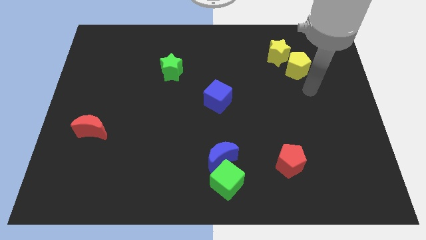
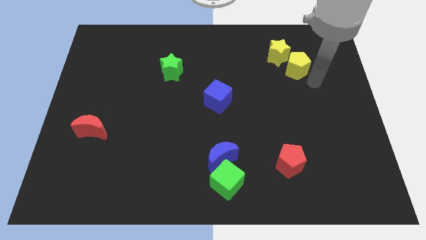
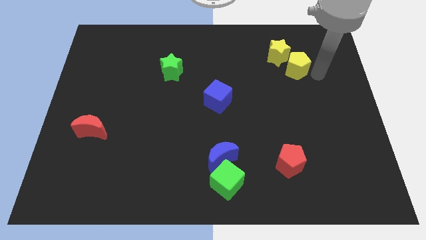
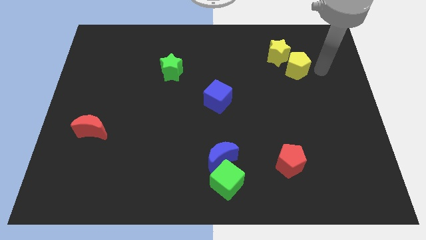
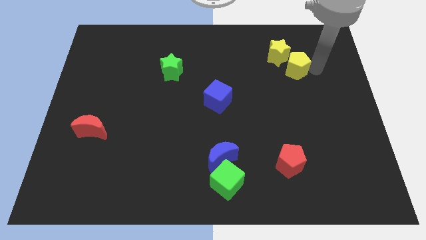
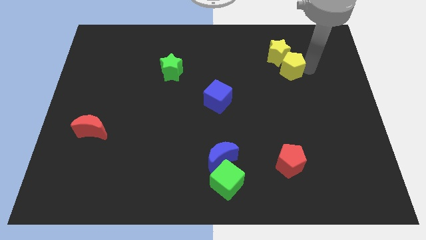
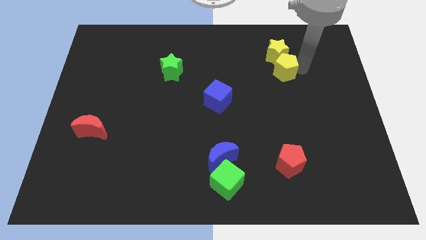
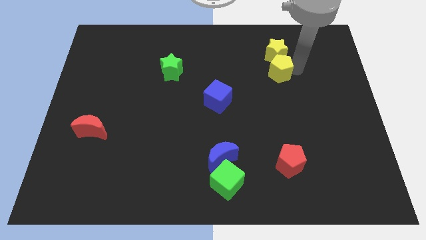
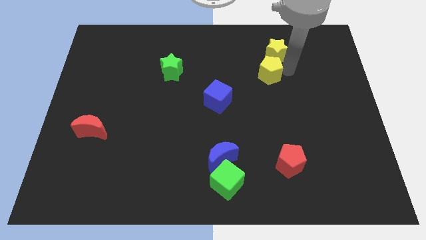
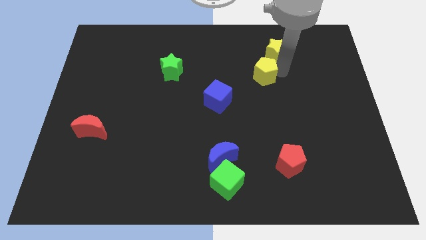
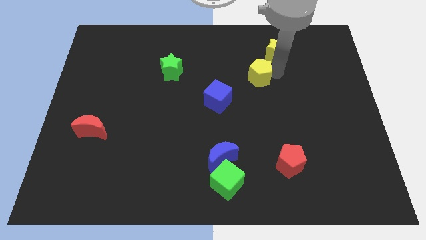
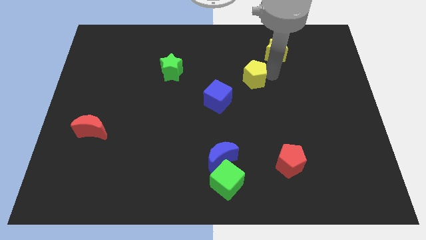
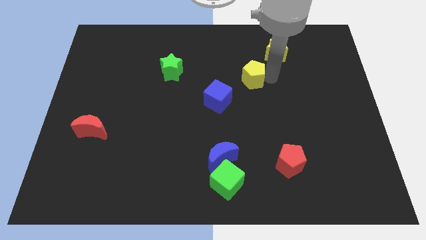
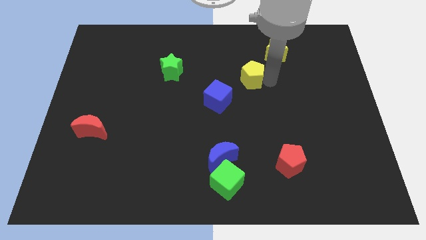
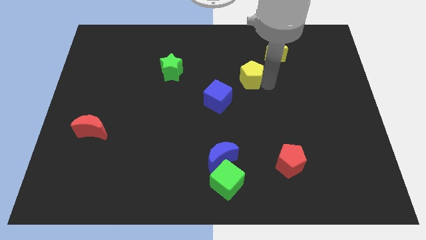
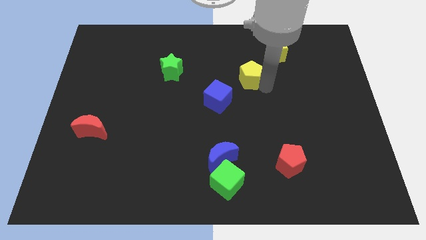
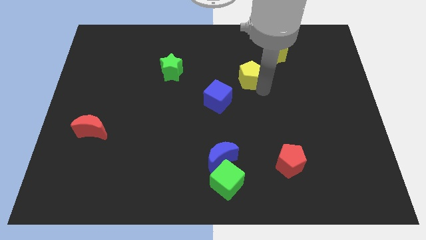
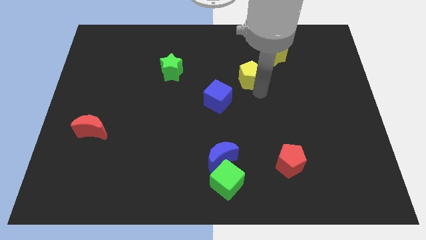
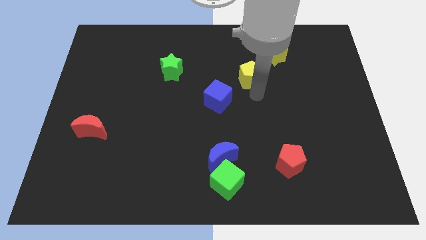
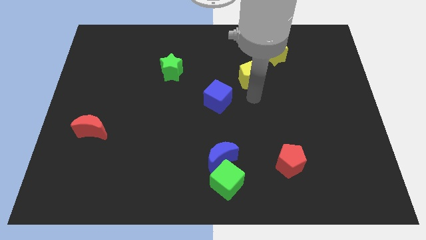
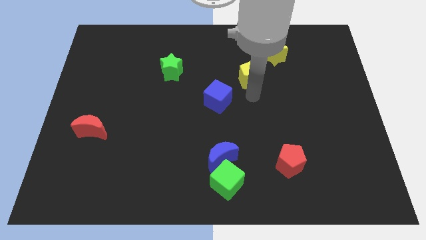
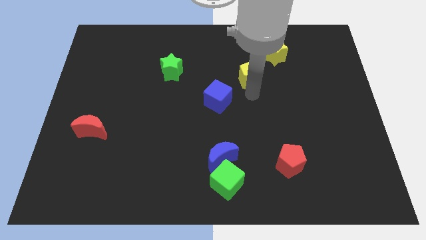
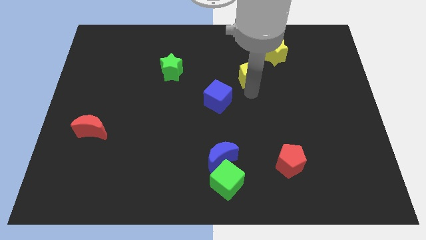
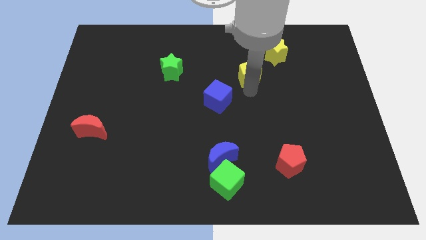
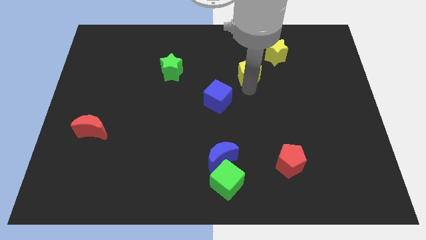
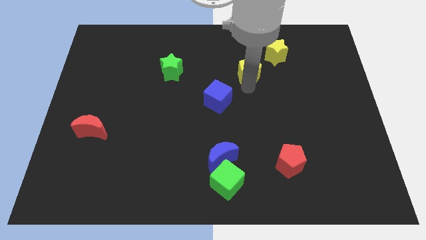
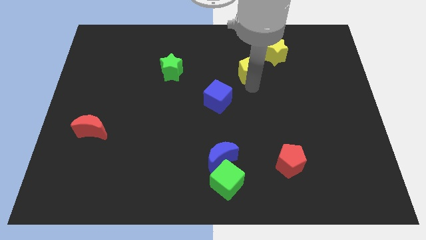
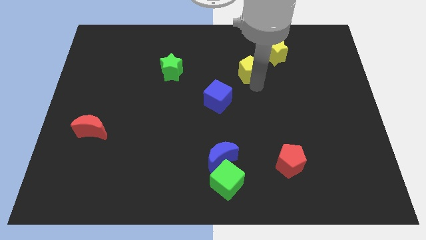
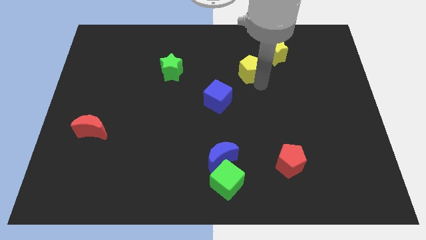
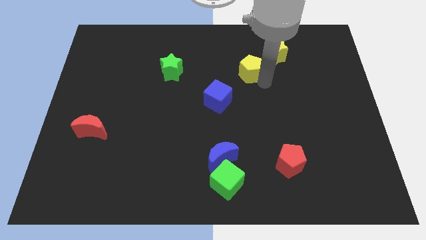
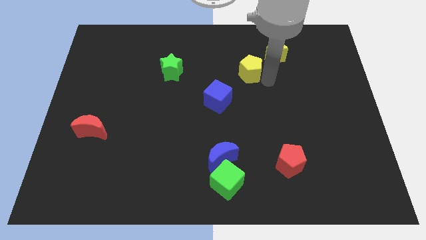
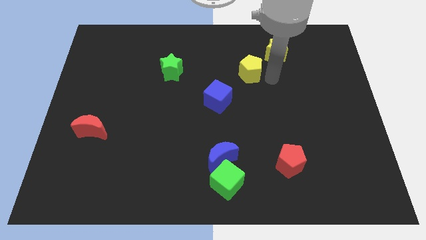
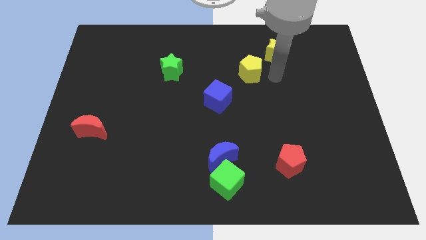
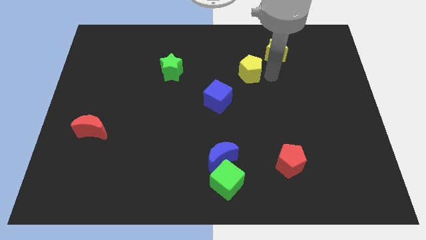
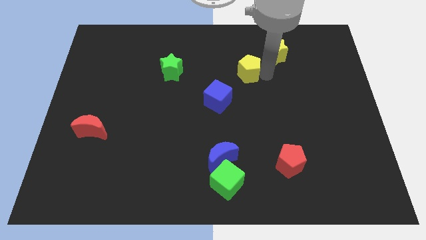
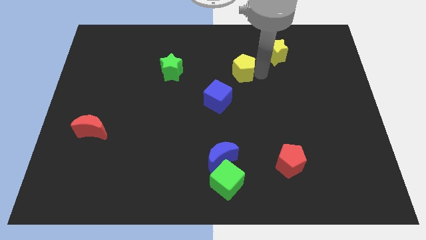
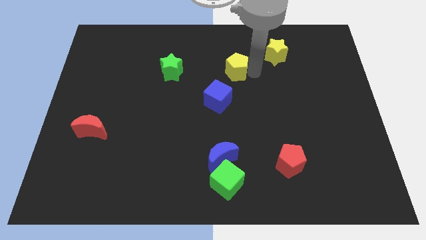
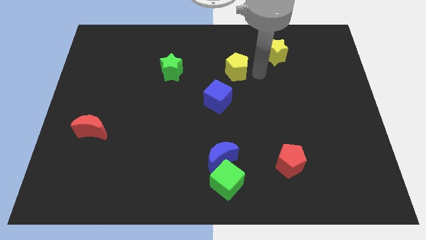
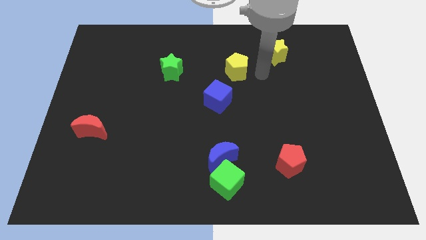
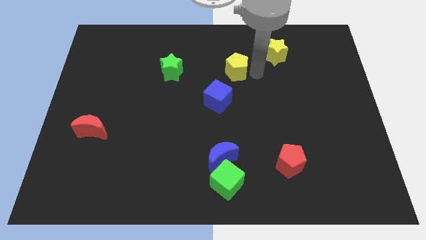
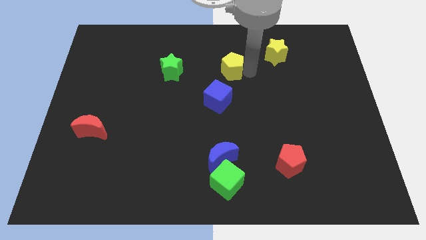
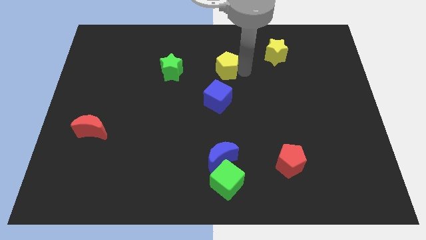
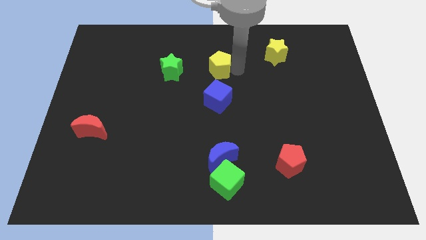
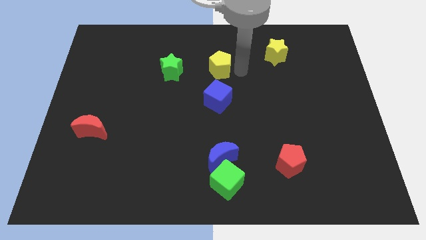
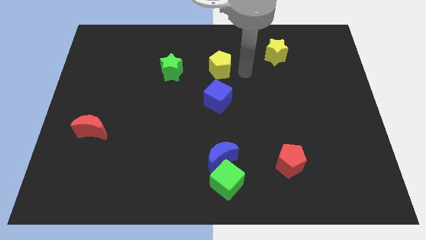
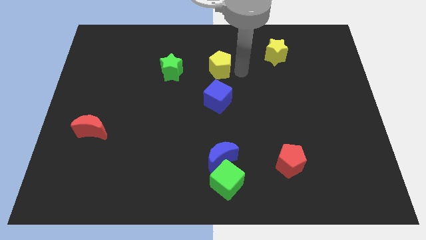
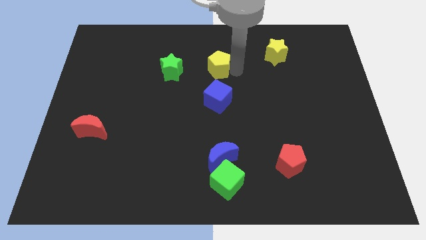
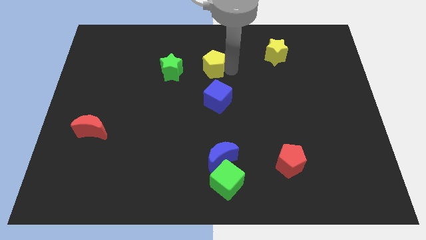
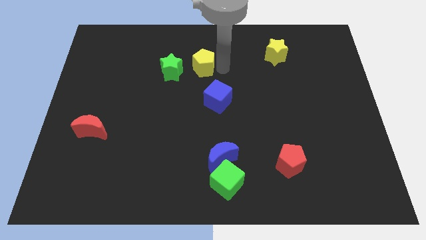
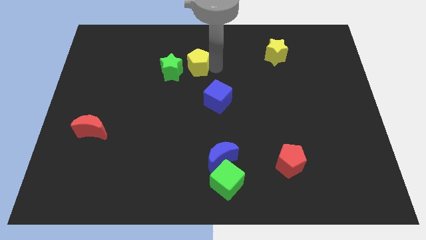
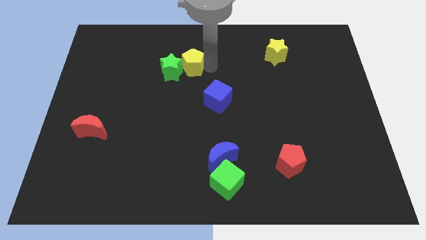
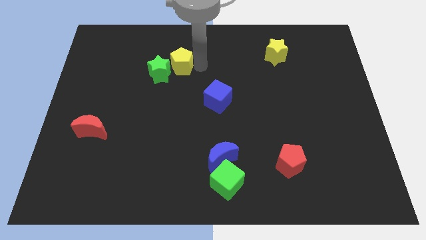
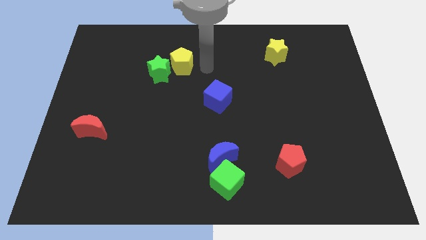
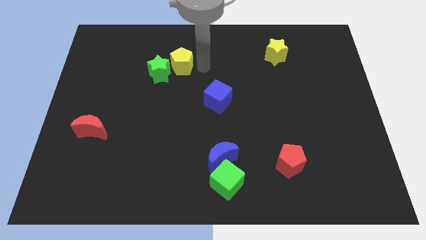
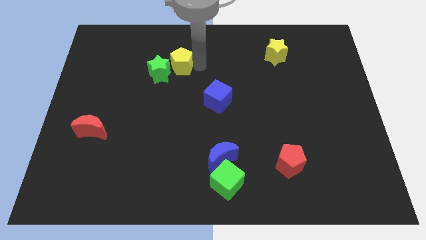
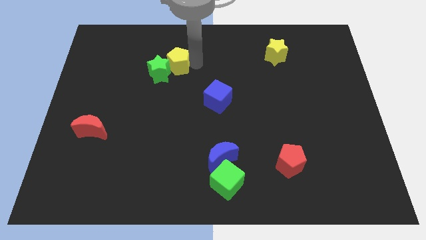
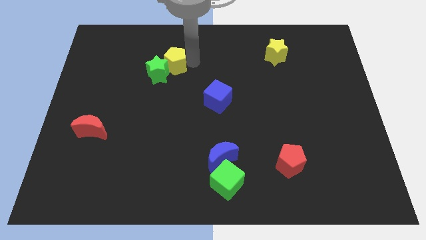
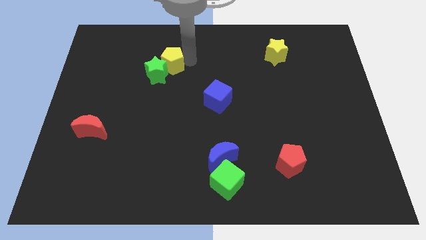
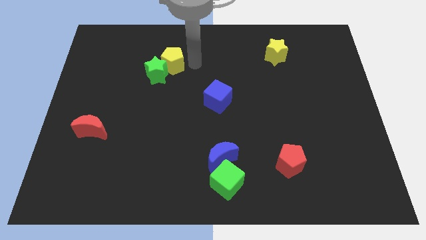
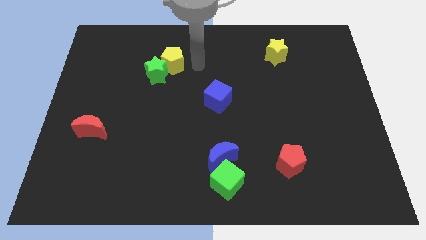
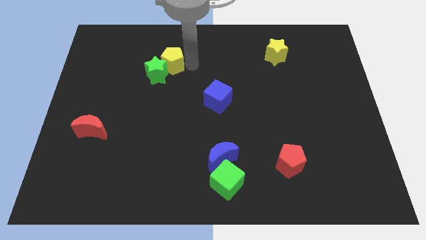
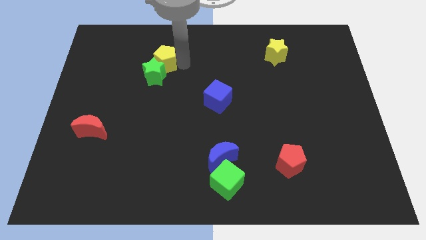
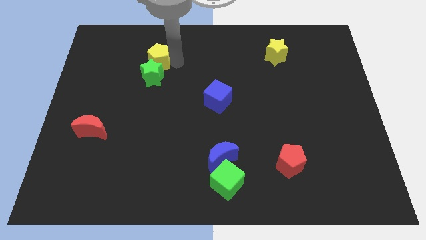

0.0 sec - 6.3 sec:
push the yellow pentagon to the top left side of the green star

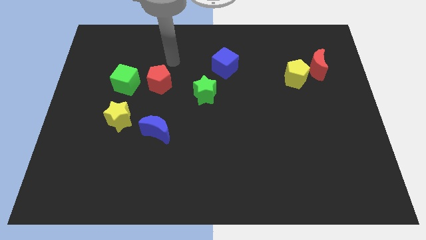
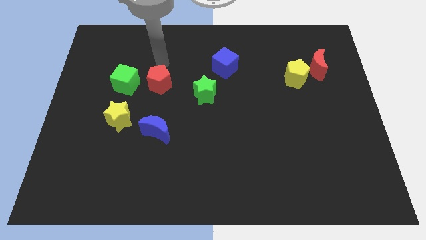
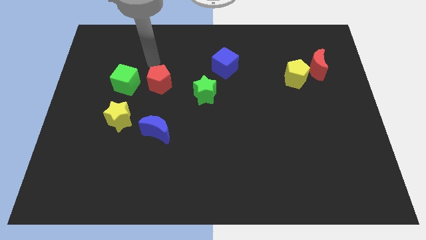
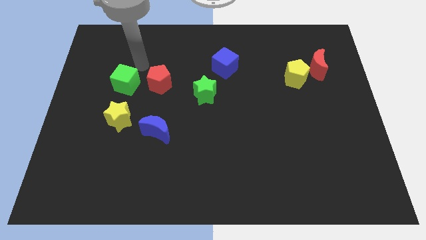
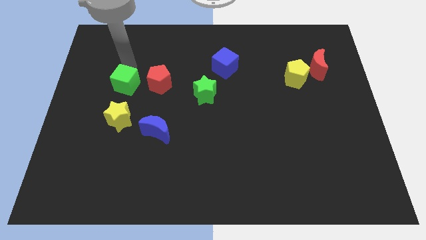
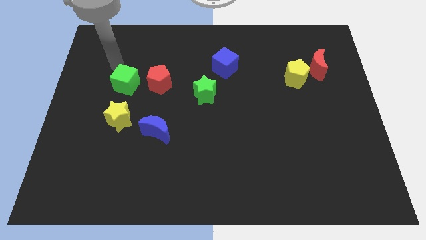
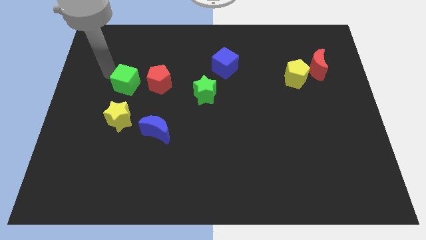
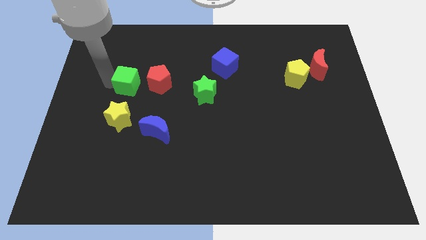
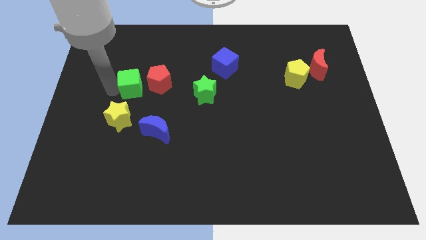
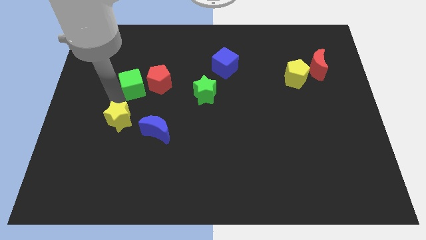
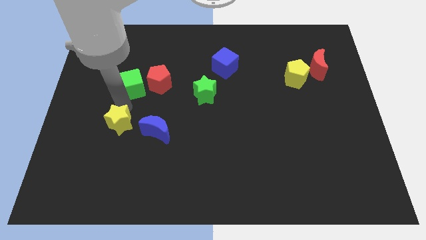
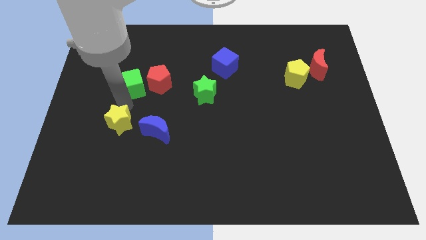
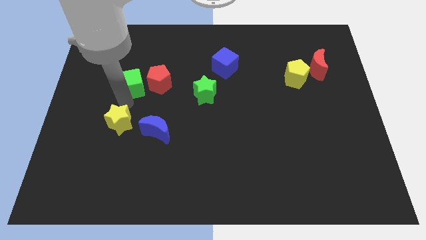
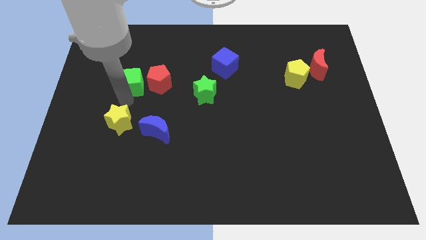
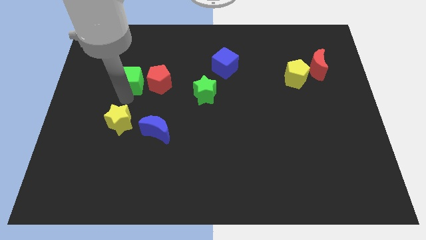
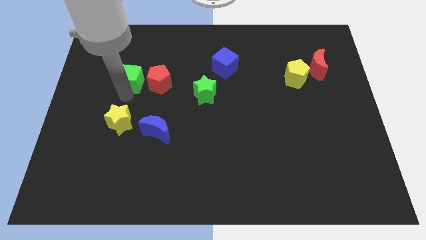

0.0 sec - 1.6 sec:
push the green cube to the top left side of the red pentagon
